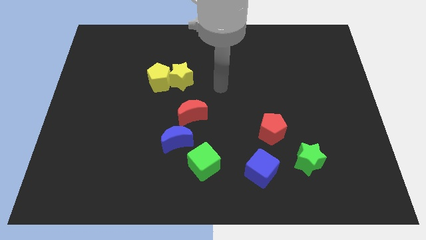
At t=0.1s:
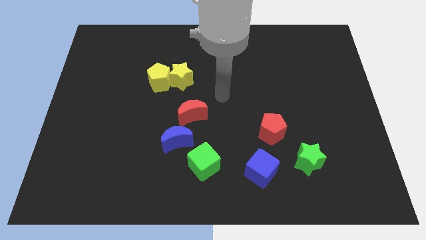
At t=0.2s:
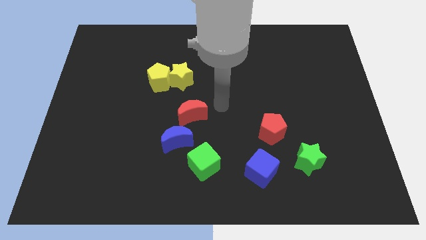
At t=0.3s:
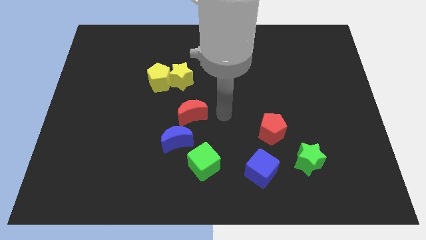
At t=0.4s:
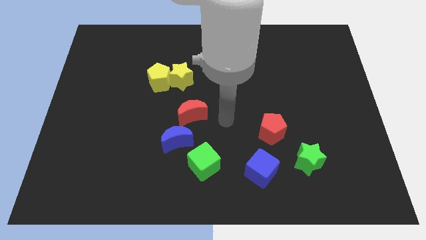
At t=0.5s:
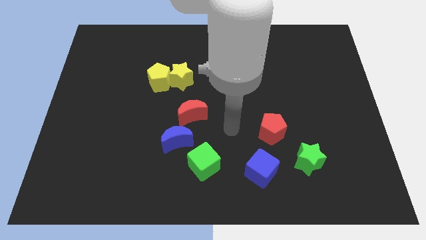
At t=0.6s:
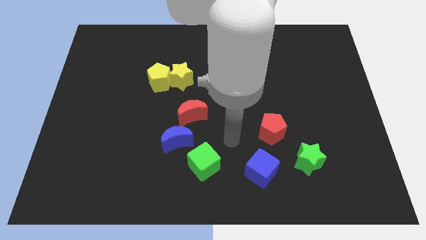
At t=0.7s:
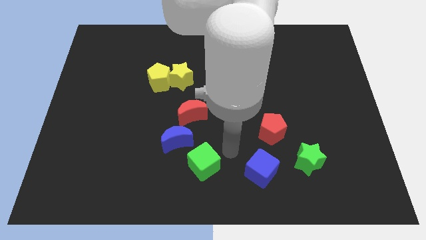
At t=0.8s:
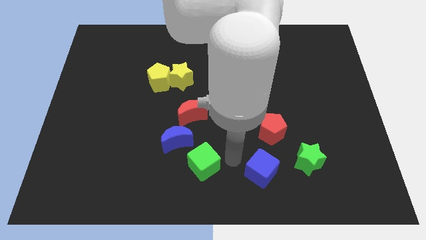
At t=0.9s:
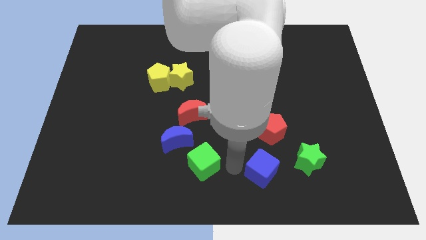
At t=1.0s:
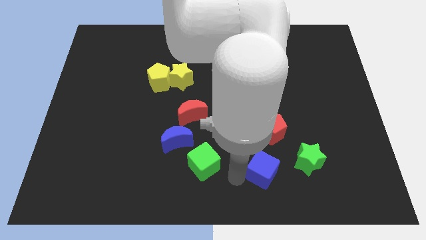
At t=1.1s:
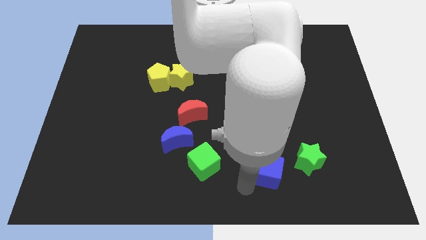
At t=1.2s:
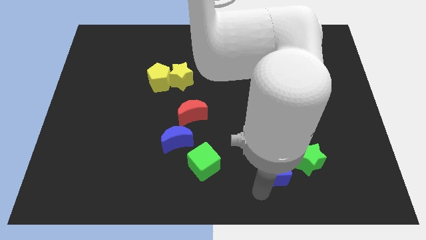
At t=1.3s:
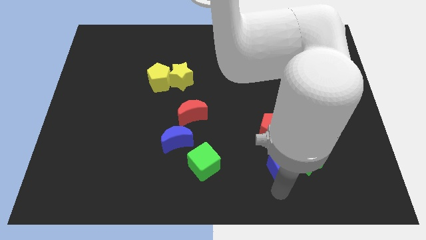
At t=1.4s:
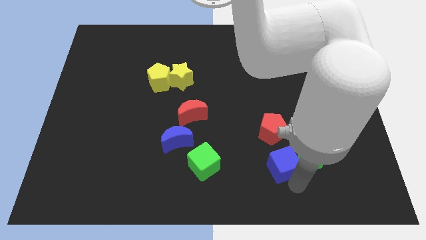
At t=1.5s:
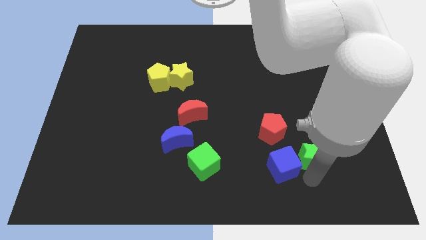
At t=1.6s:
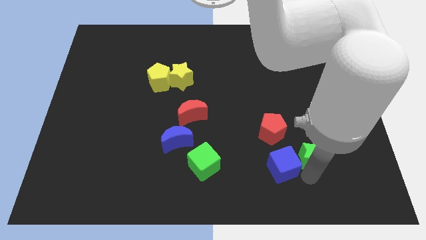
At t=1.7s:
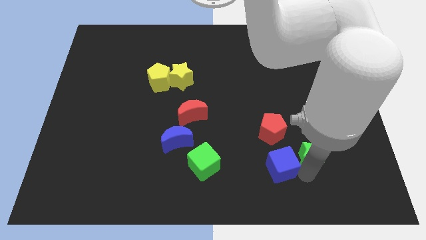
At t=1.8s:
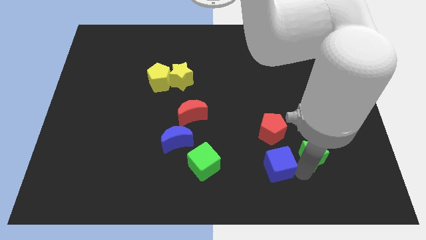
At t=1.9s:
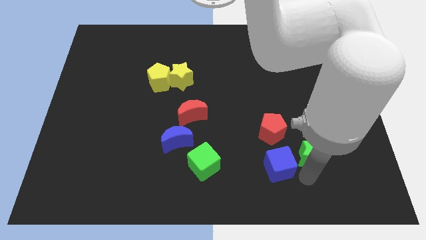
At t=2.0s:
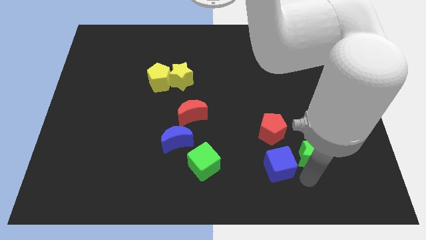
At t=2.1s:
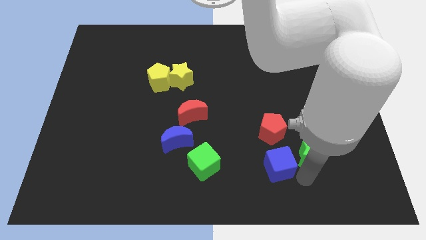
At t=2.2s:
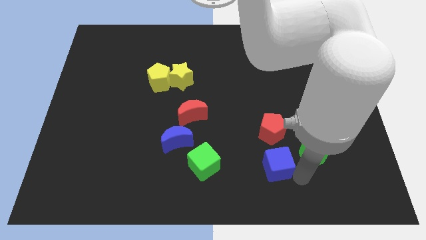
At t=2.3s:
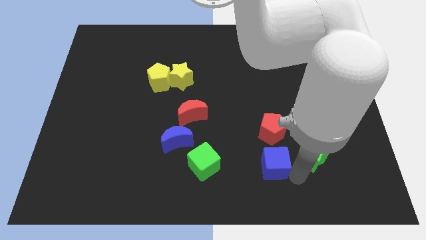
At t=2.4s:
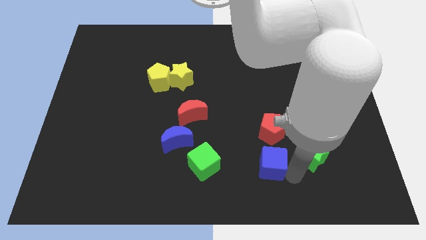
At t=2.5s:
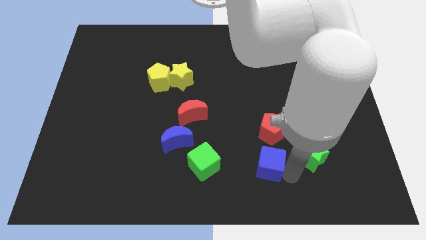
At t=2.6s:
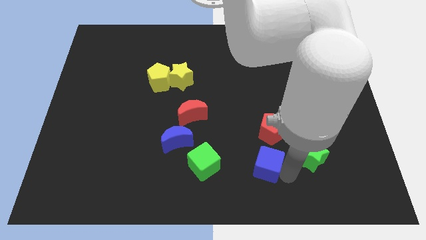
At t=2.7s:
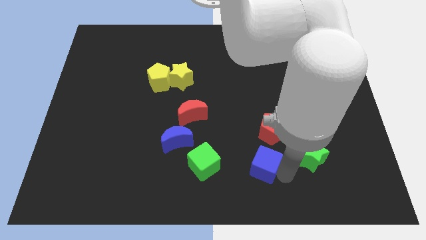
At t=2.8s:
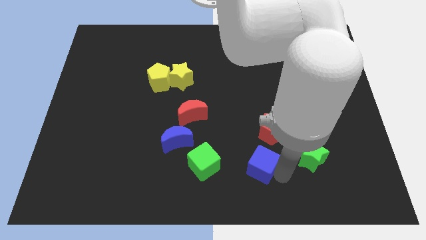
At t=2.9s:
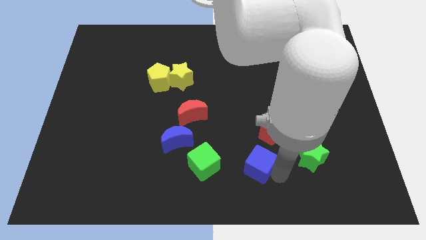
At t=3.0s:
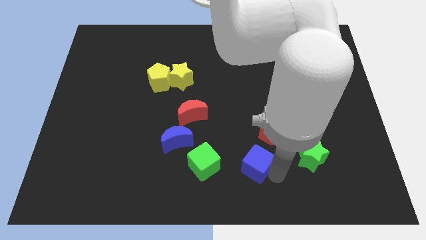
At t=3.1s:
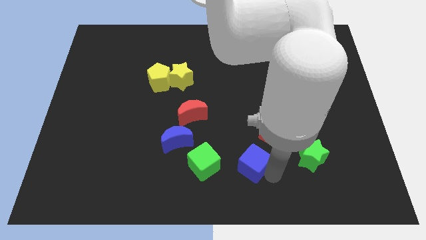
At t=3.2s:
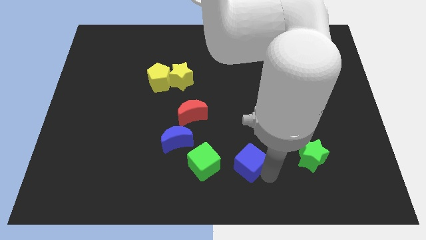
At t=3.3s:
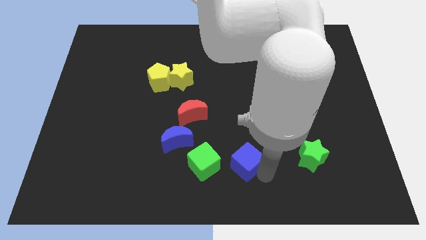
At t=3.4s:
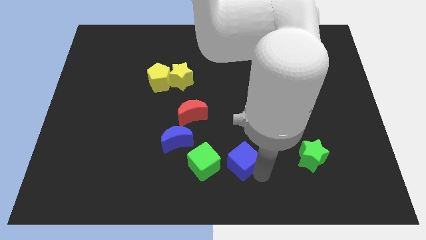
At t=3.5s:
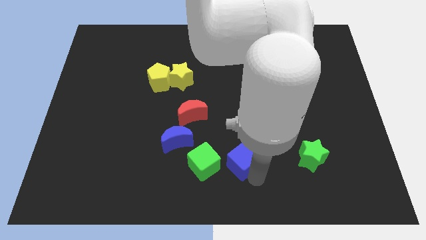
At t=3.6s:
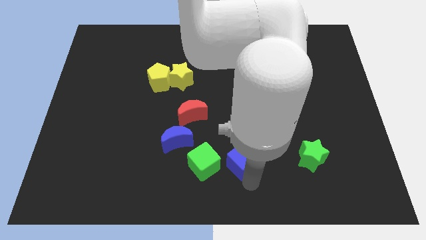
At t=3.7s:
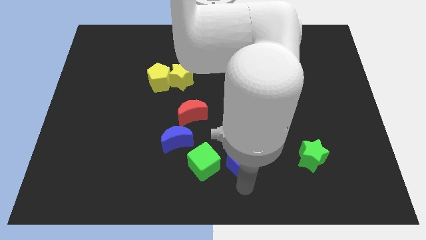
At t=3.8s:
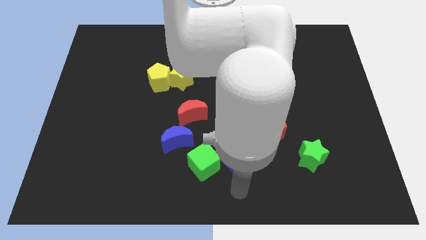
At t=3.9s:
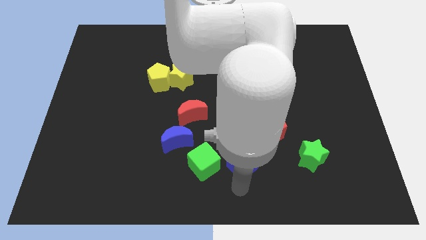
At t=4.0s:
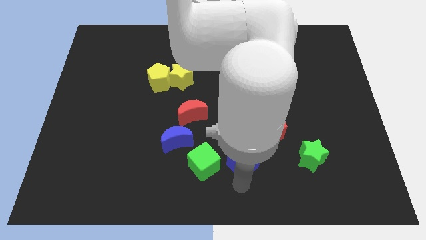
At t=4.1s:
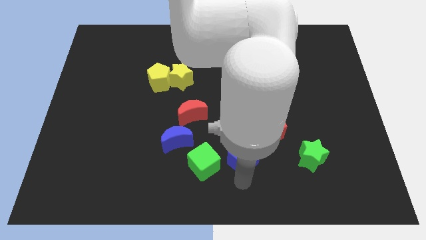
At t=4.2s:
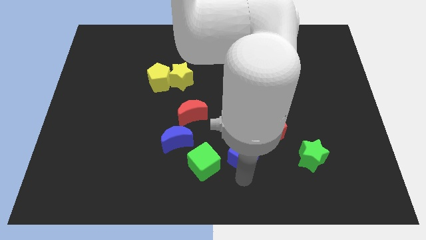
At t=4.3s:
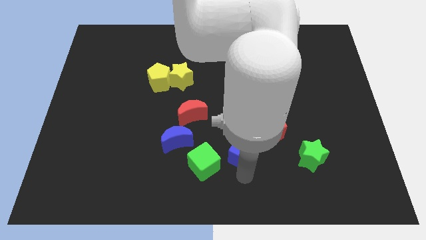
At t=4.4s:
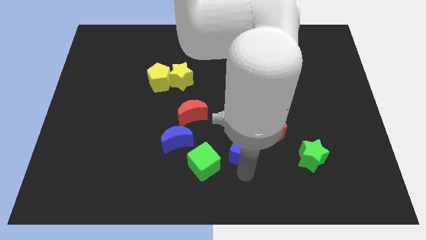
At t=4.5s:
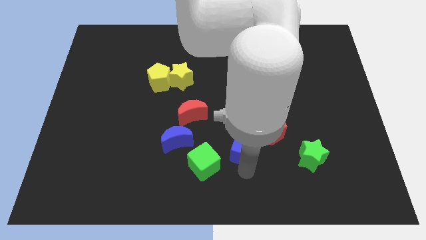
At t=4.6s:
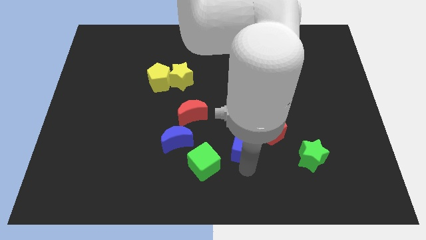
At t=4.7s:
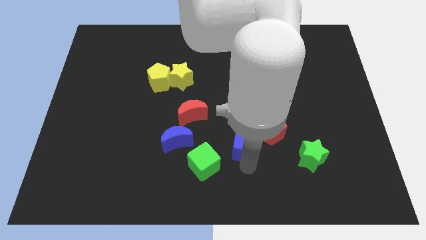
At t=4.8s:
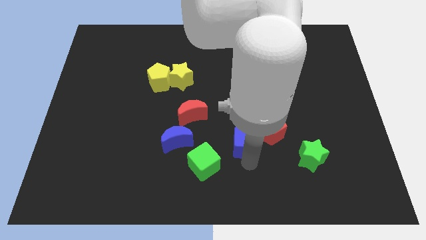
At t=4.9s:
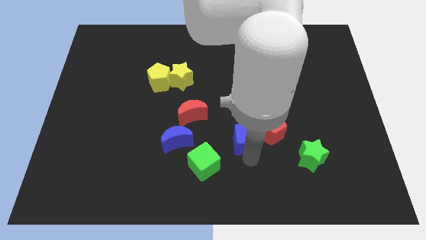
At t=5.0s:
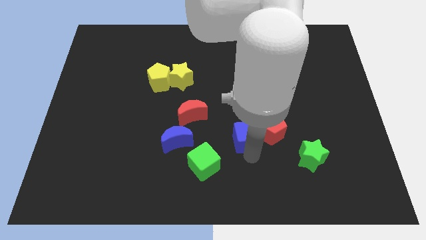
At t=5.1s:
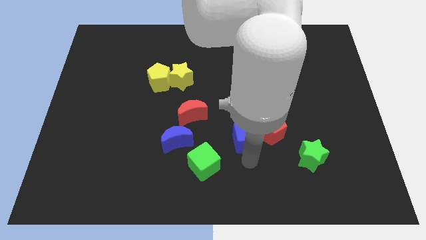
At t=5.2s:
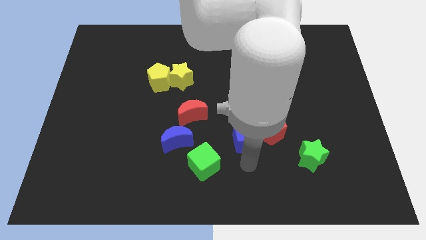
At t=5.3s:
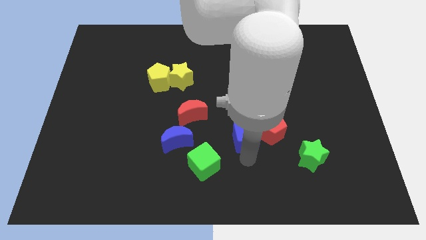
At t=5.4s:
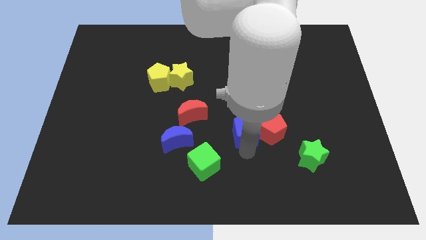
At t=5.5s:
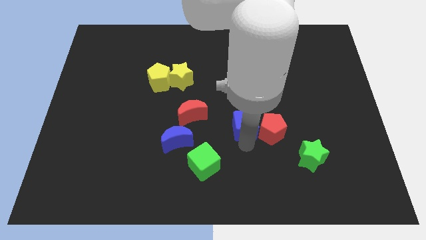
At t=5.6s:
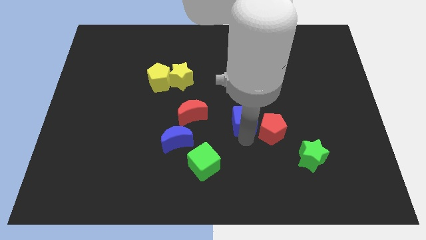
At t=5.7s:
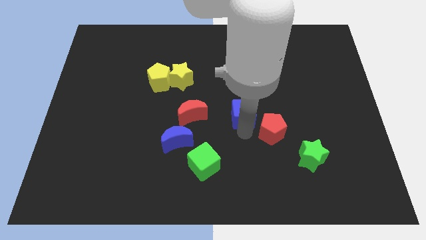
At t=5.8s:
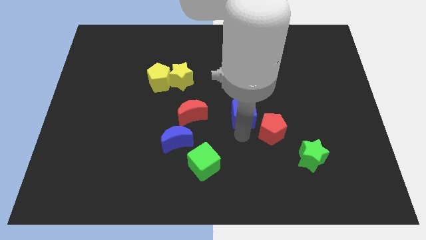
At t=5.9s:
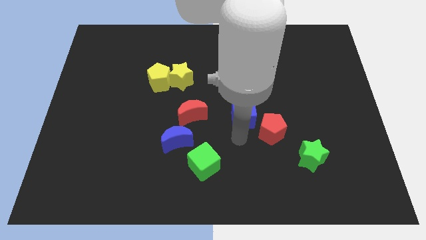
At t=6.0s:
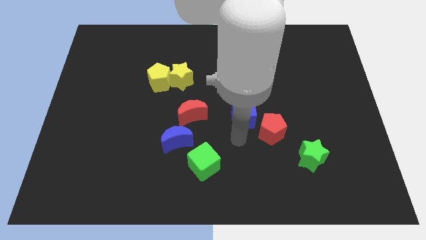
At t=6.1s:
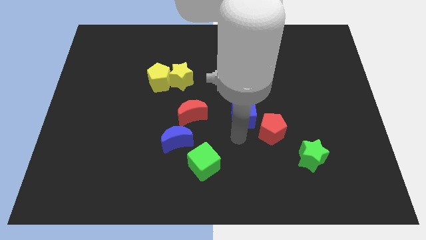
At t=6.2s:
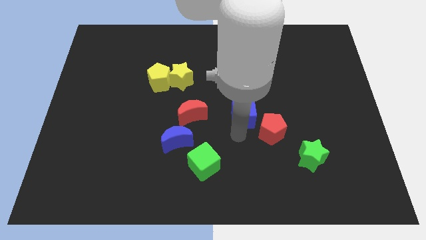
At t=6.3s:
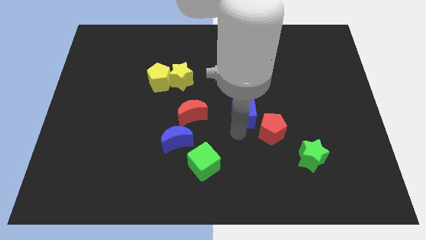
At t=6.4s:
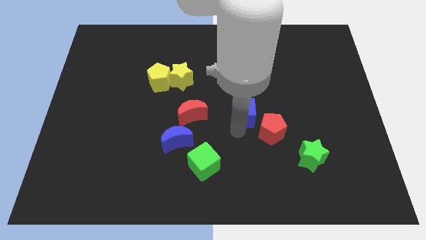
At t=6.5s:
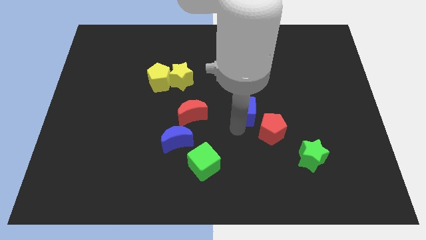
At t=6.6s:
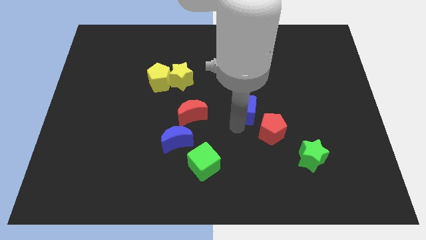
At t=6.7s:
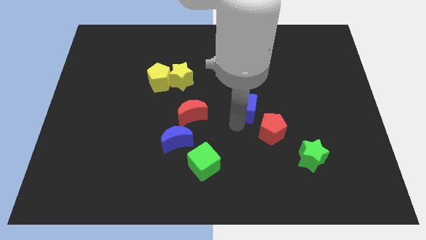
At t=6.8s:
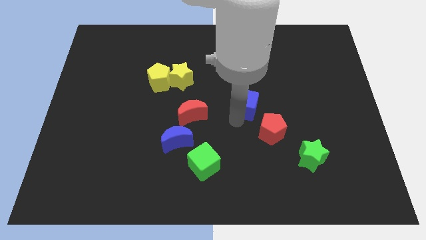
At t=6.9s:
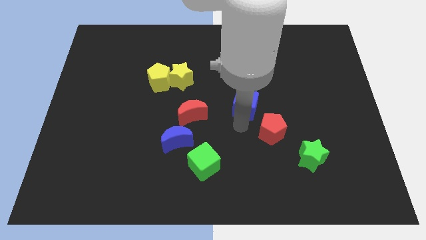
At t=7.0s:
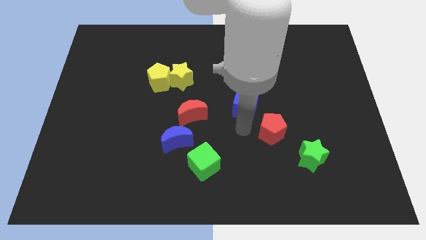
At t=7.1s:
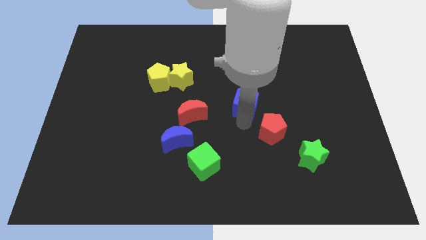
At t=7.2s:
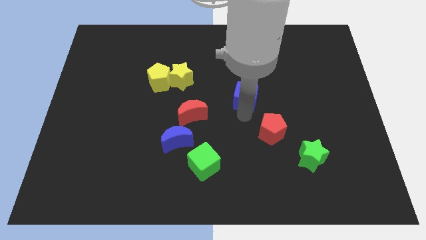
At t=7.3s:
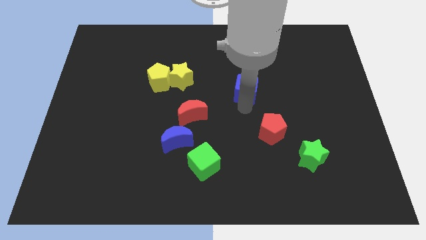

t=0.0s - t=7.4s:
move the blue cube upwards

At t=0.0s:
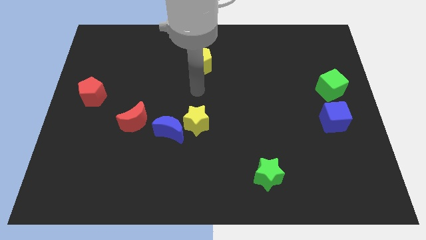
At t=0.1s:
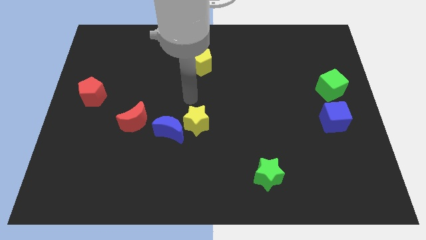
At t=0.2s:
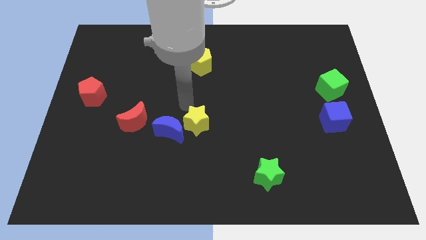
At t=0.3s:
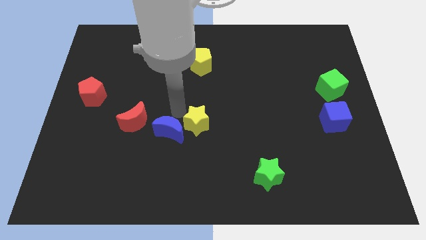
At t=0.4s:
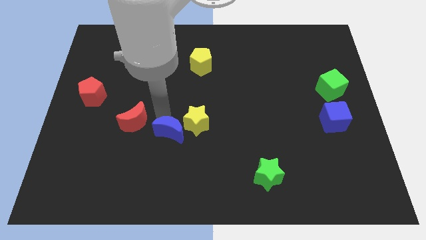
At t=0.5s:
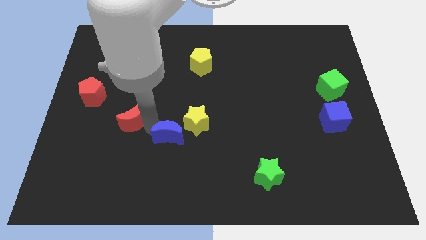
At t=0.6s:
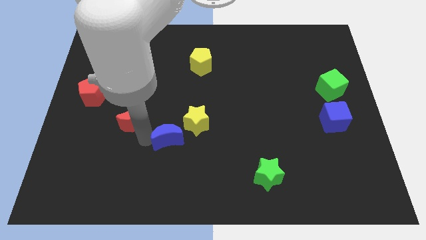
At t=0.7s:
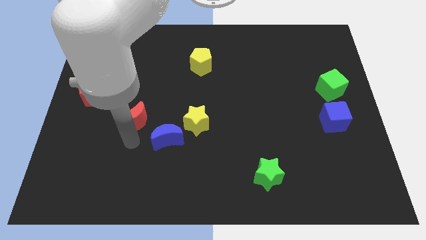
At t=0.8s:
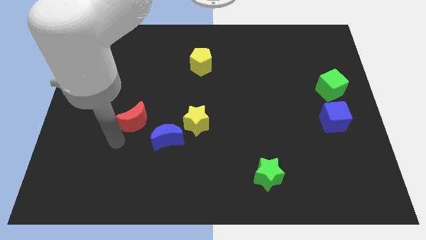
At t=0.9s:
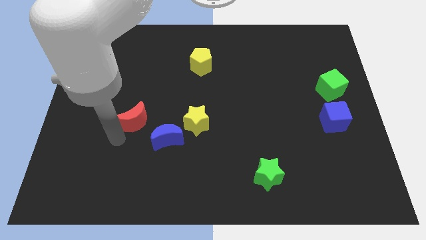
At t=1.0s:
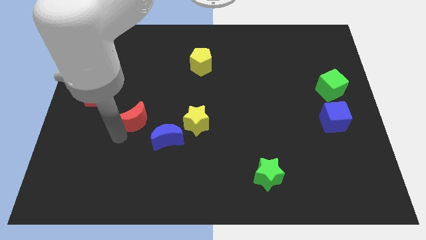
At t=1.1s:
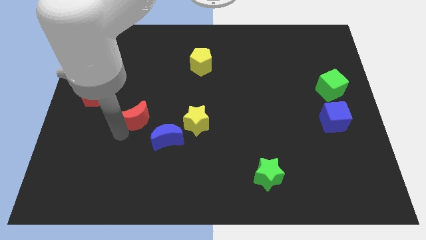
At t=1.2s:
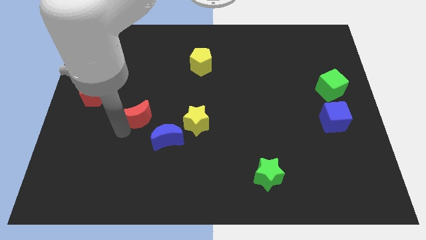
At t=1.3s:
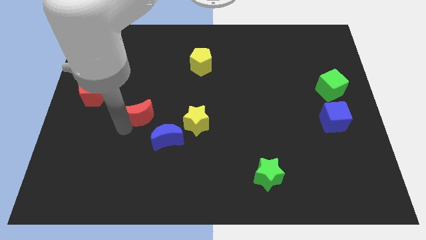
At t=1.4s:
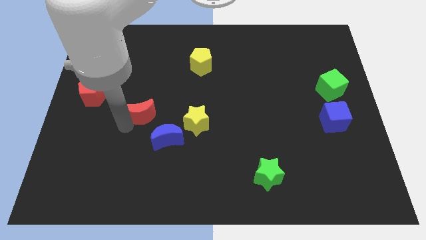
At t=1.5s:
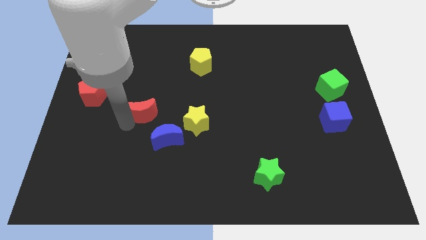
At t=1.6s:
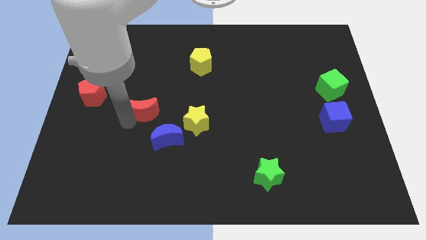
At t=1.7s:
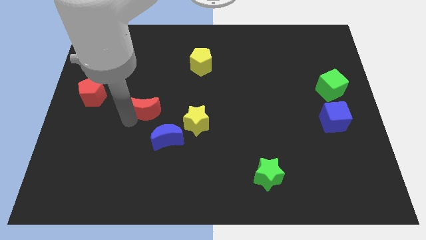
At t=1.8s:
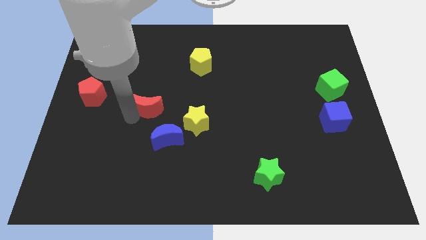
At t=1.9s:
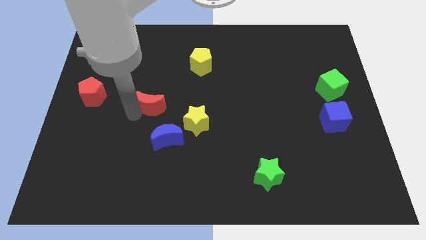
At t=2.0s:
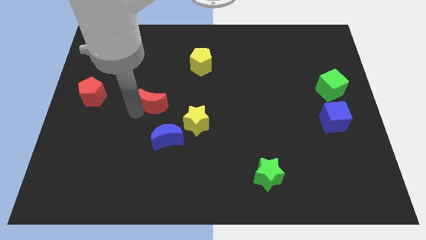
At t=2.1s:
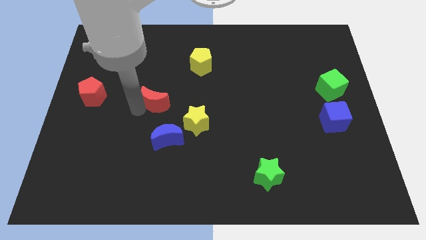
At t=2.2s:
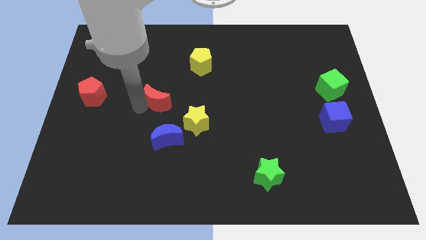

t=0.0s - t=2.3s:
move the red moon up and to the right diagonally a bit
